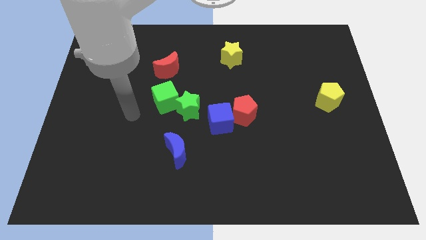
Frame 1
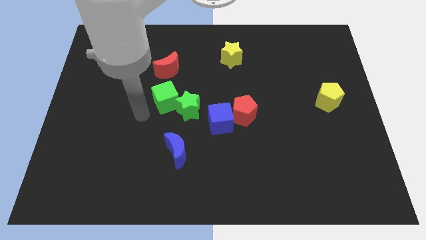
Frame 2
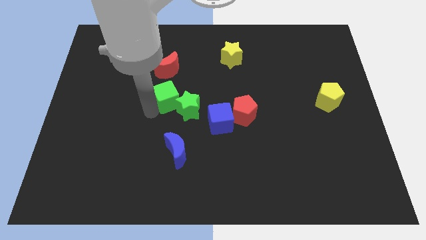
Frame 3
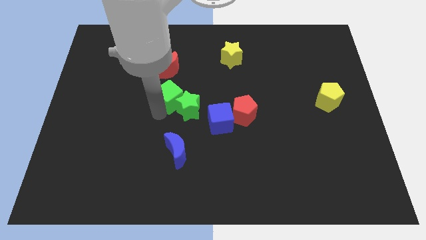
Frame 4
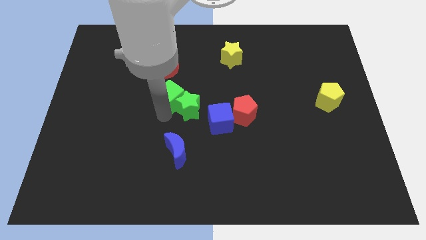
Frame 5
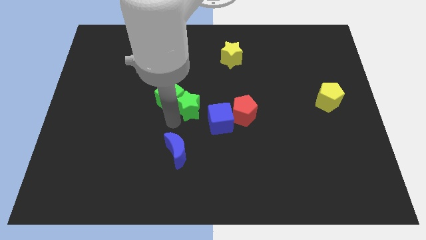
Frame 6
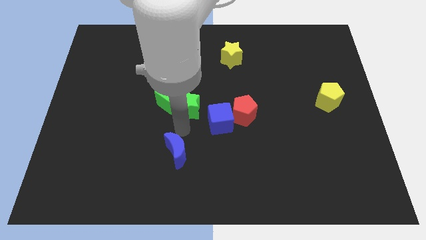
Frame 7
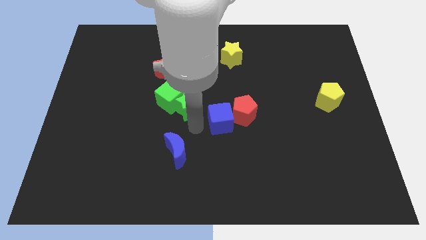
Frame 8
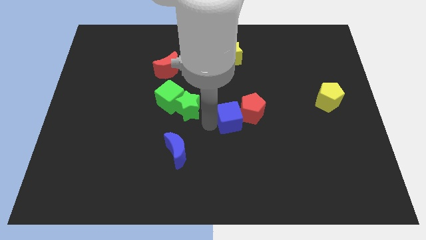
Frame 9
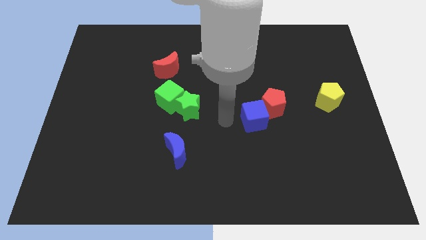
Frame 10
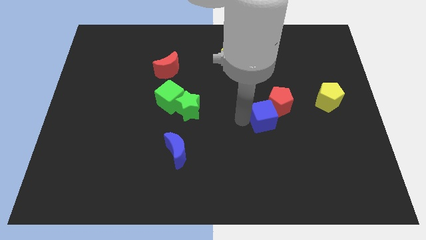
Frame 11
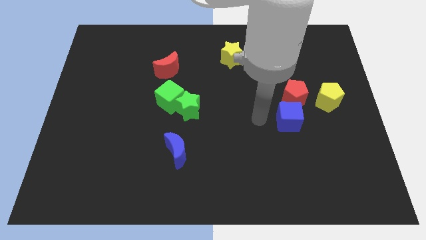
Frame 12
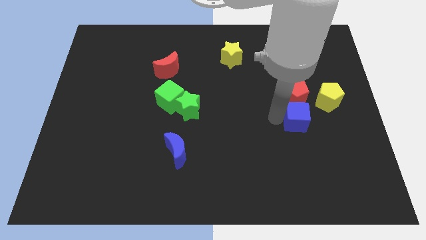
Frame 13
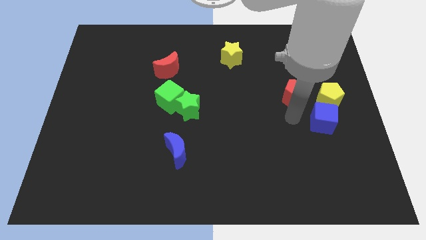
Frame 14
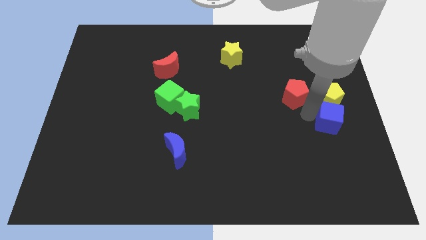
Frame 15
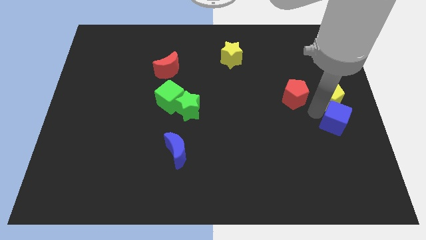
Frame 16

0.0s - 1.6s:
pull the red pentagon apart from the blue cube

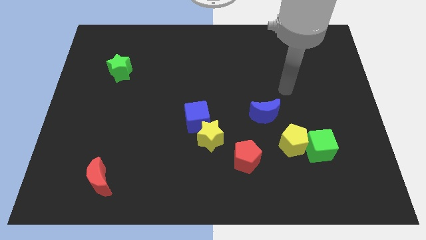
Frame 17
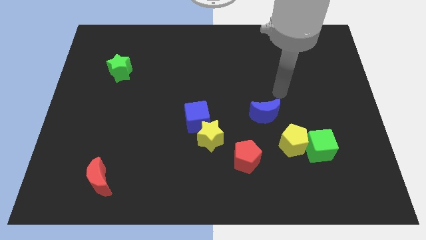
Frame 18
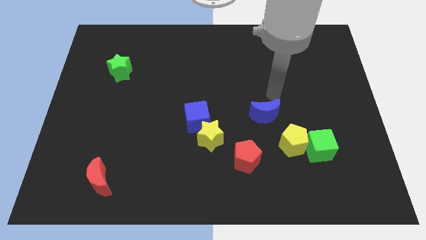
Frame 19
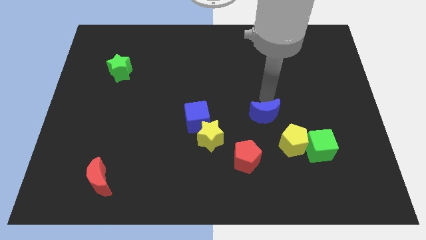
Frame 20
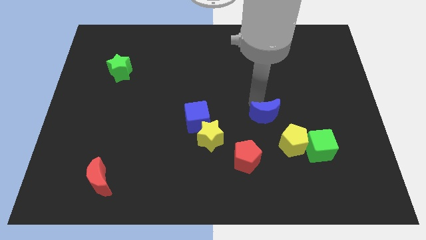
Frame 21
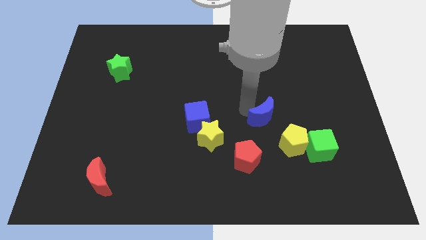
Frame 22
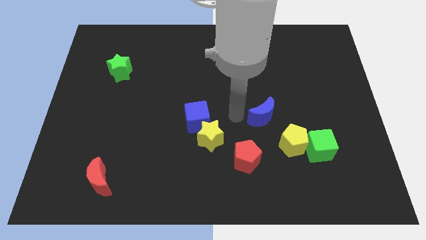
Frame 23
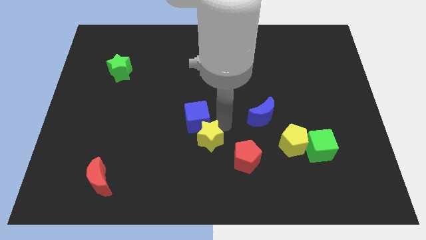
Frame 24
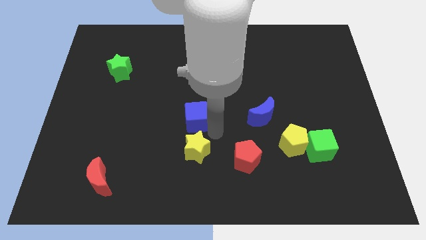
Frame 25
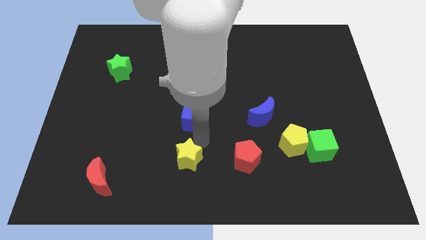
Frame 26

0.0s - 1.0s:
separate the blue cube from the yellow star

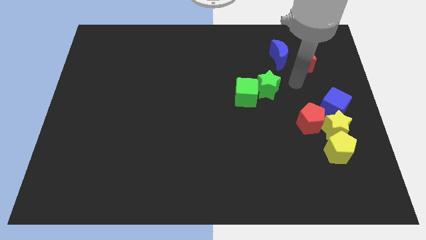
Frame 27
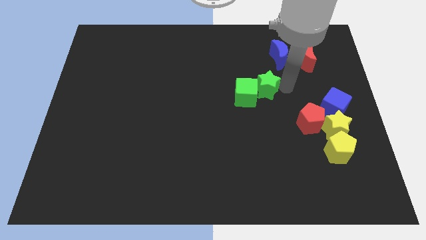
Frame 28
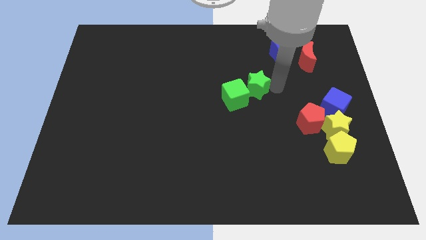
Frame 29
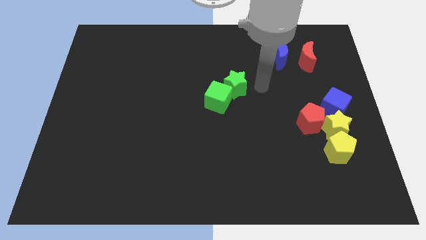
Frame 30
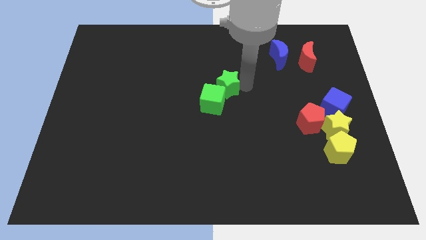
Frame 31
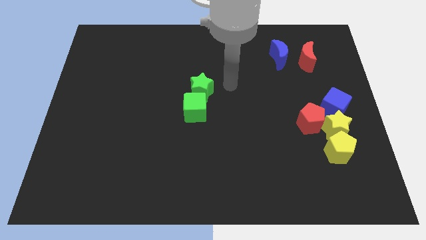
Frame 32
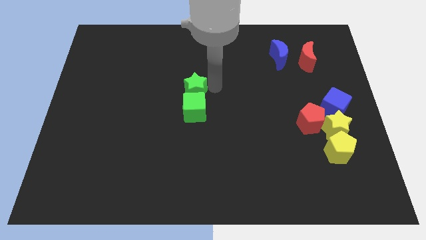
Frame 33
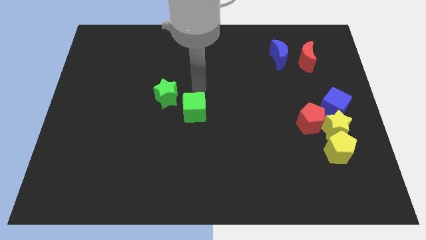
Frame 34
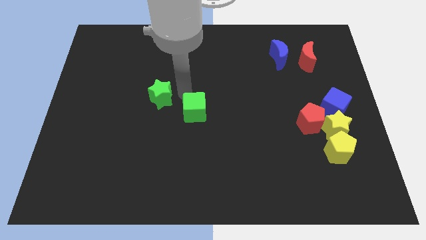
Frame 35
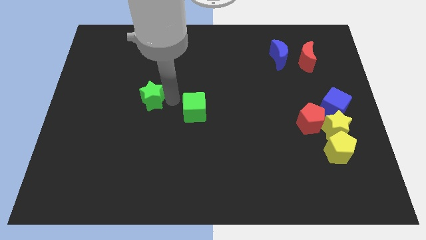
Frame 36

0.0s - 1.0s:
separate the green cube from the green star

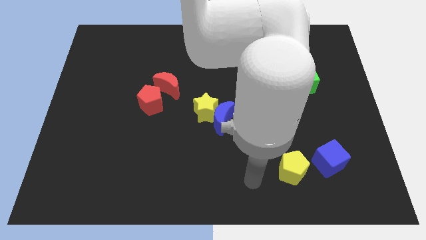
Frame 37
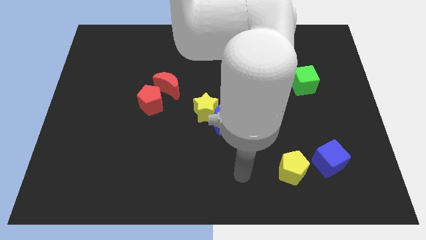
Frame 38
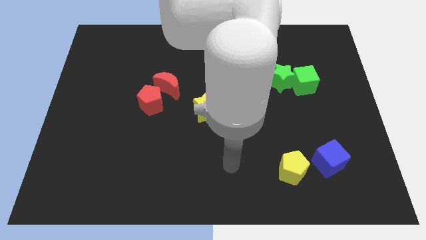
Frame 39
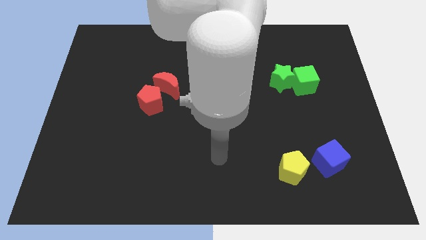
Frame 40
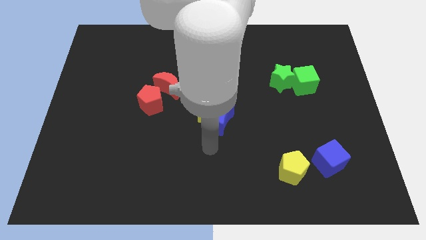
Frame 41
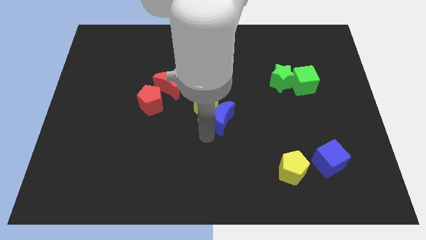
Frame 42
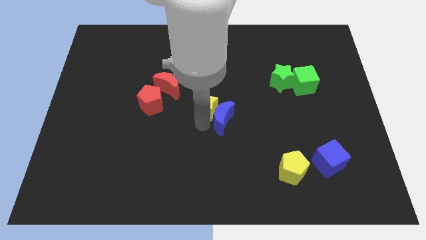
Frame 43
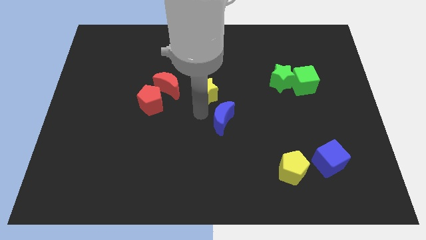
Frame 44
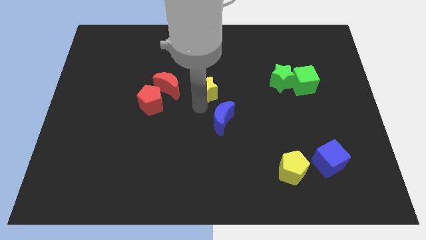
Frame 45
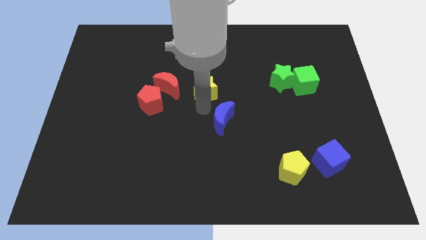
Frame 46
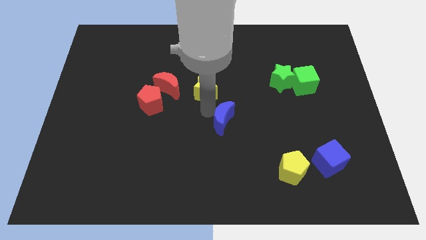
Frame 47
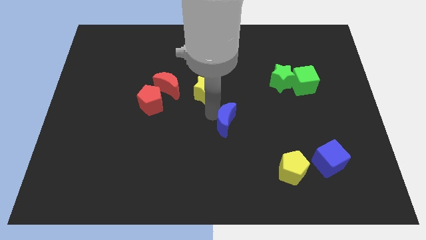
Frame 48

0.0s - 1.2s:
pull the blue moon apart from the yellow star

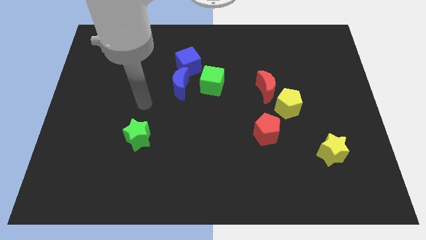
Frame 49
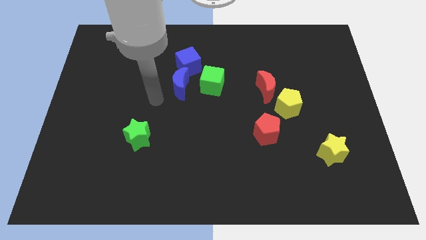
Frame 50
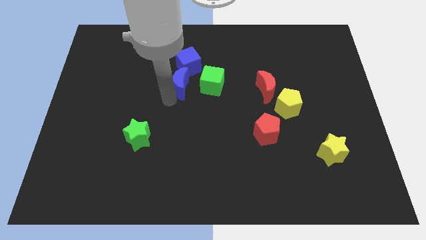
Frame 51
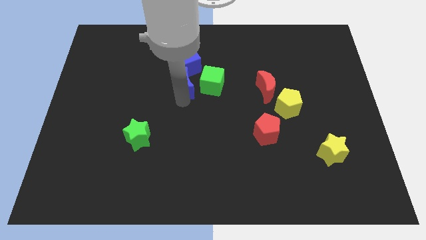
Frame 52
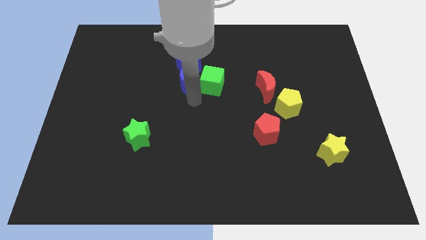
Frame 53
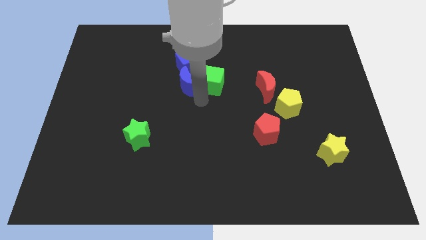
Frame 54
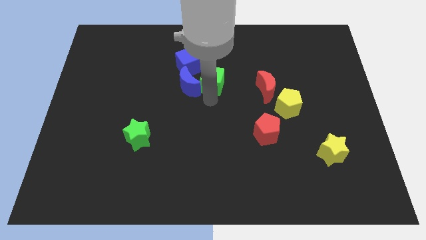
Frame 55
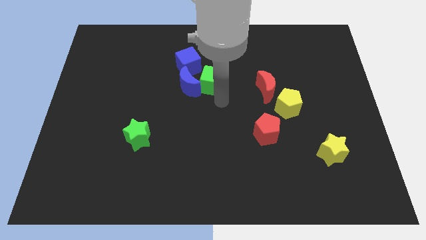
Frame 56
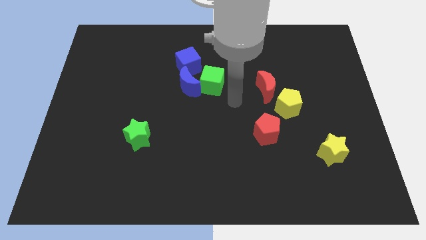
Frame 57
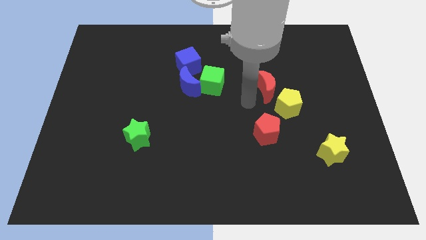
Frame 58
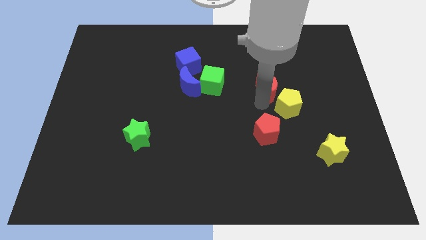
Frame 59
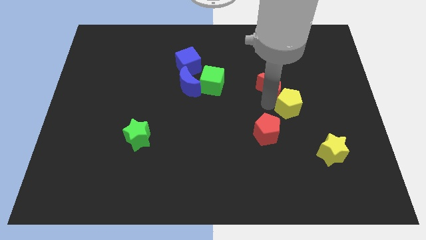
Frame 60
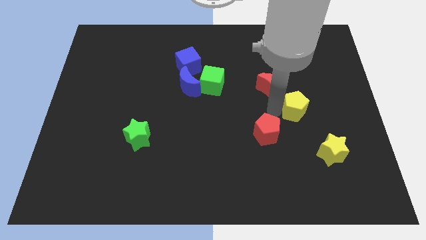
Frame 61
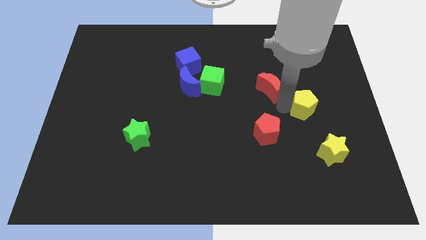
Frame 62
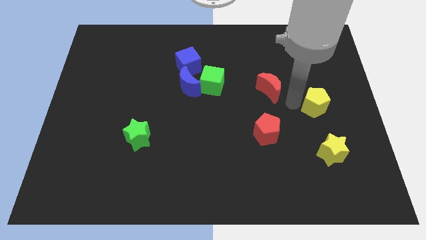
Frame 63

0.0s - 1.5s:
pull the red moon apart from the yellow pentagon

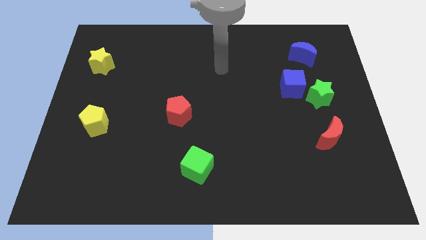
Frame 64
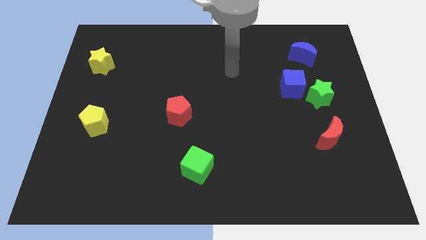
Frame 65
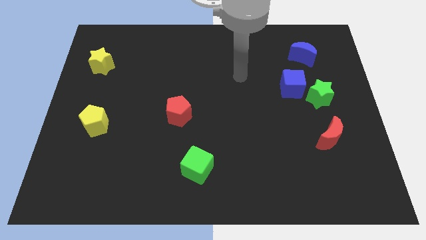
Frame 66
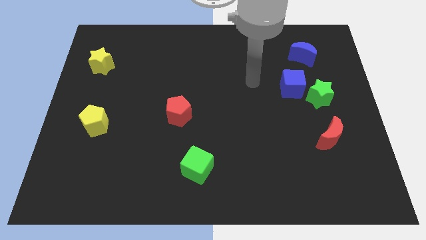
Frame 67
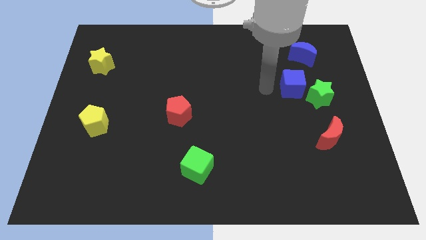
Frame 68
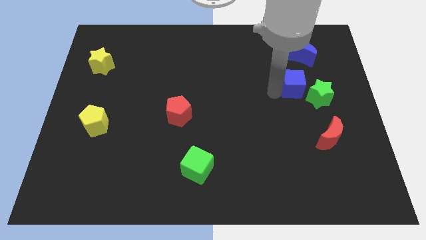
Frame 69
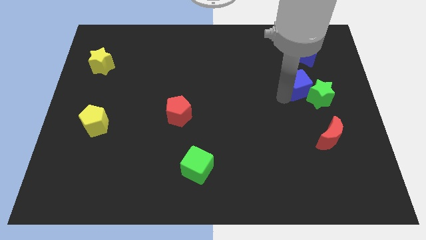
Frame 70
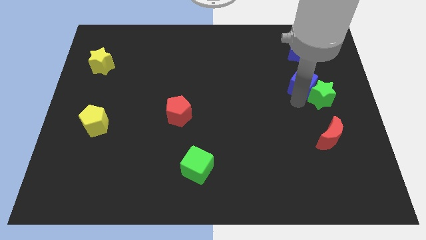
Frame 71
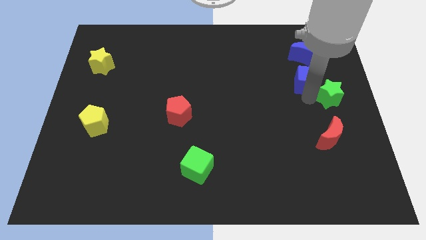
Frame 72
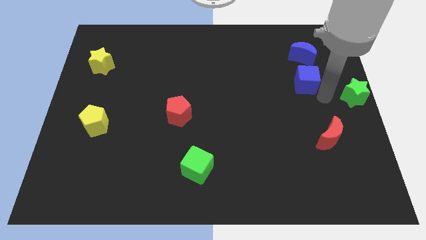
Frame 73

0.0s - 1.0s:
move the blue cube away from the green star

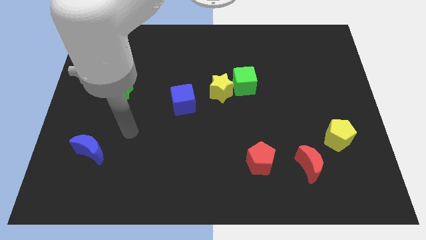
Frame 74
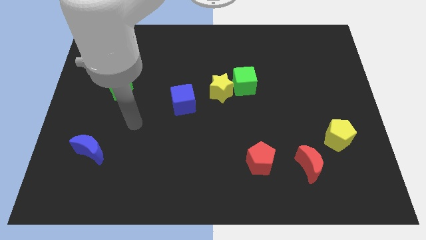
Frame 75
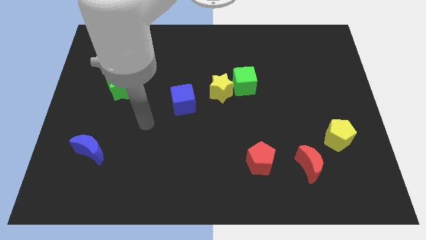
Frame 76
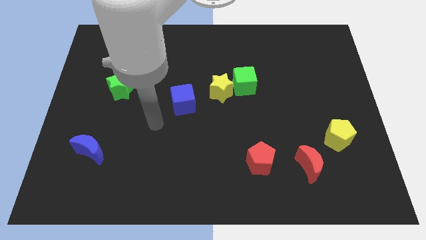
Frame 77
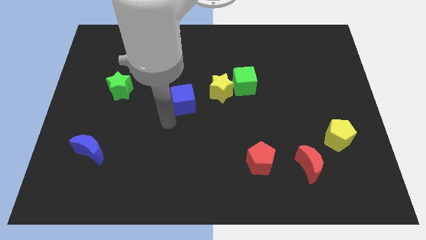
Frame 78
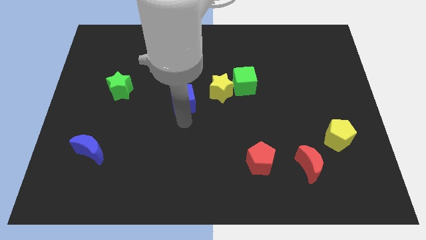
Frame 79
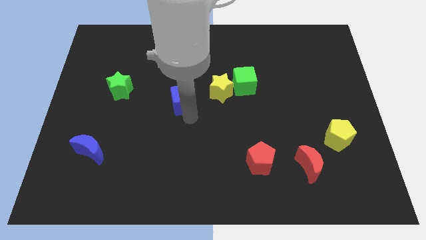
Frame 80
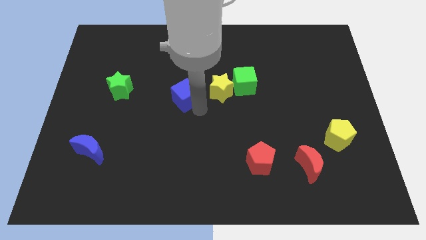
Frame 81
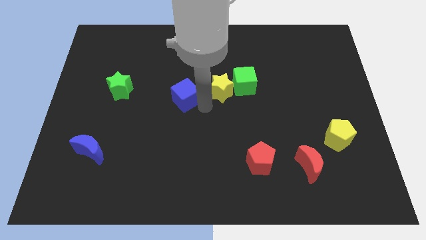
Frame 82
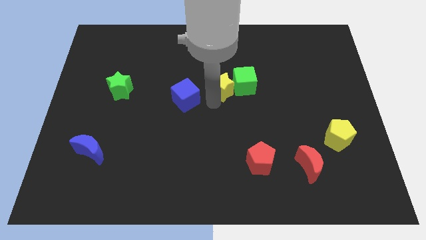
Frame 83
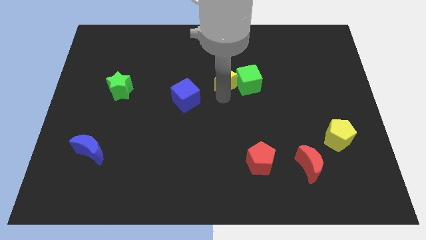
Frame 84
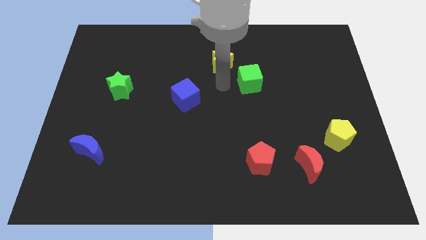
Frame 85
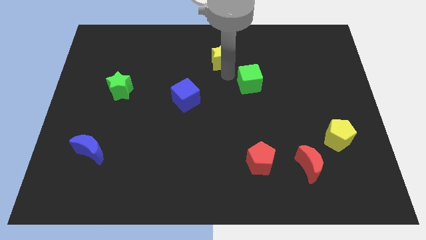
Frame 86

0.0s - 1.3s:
move the green cube away from the yellow star

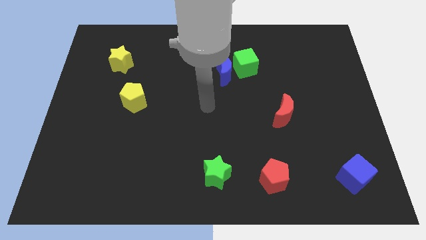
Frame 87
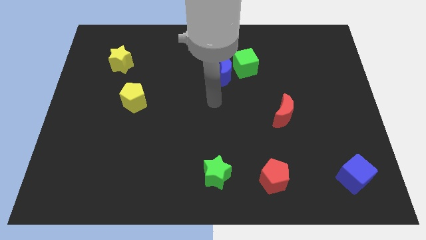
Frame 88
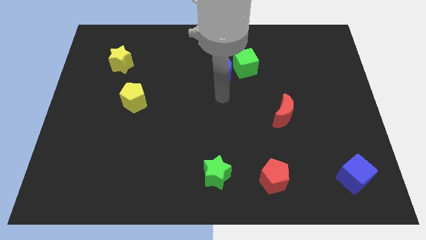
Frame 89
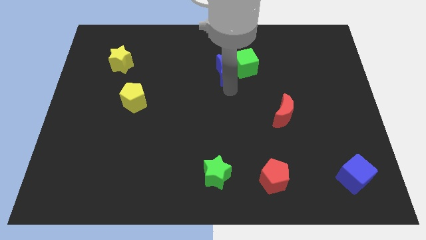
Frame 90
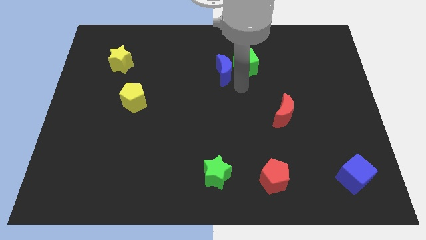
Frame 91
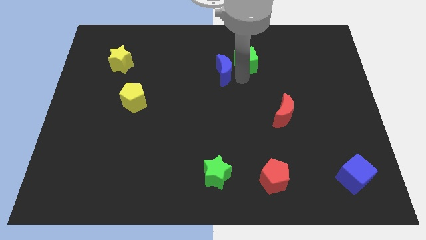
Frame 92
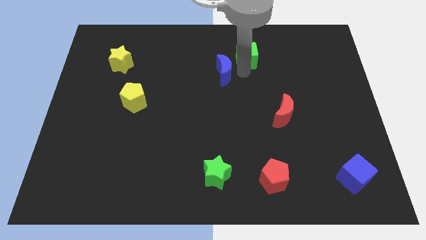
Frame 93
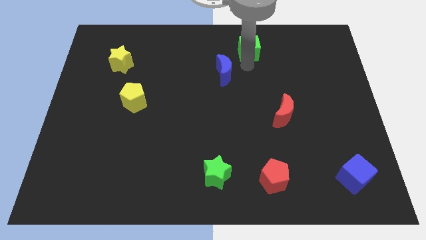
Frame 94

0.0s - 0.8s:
separate the blue moon from the green cube
